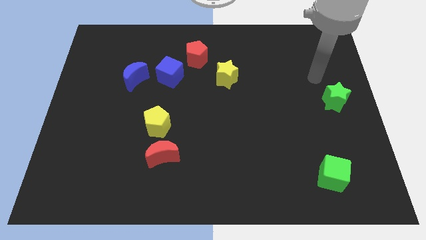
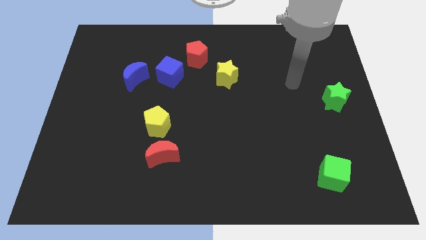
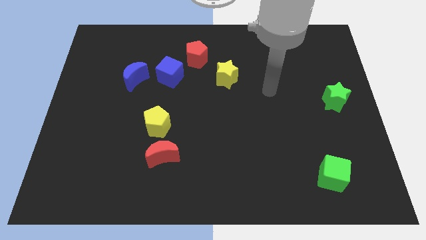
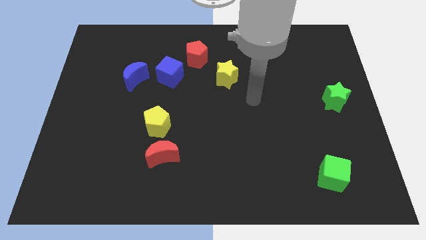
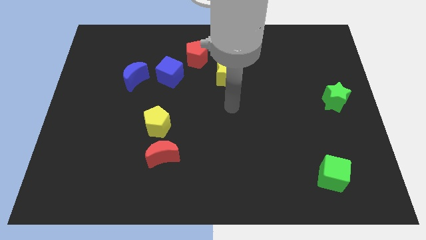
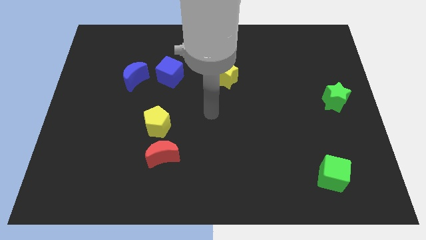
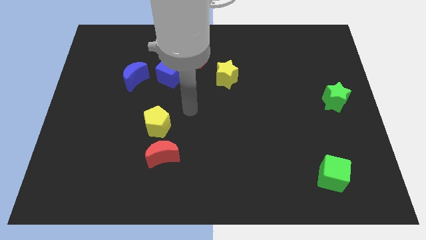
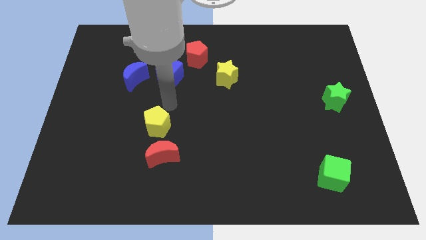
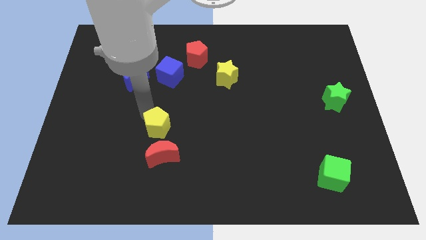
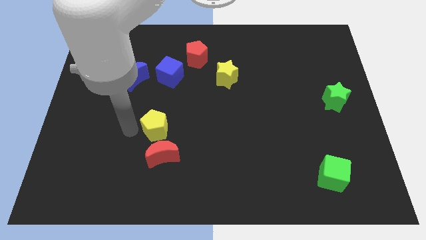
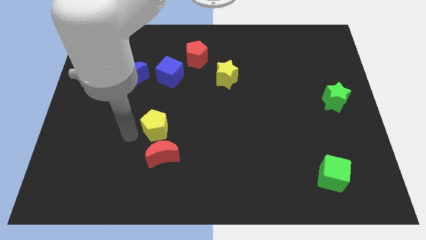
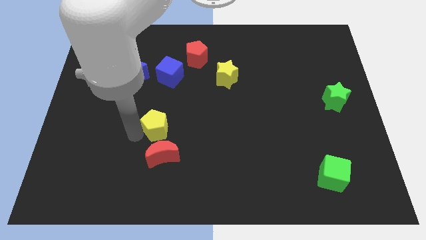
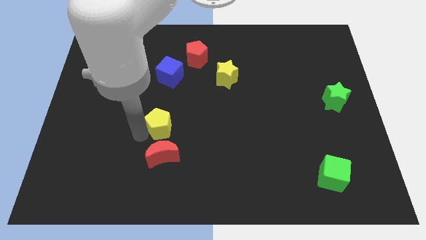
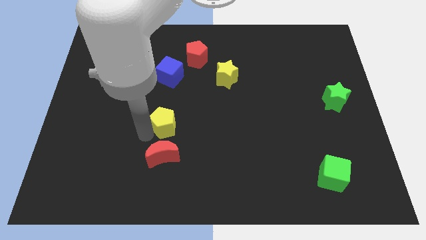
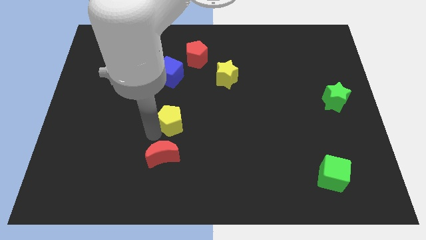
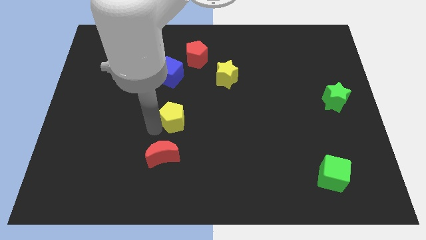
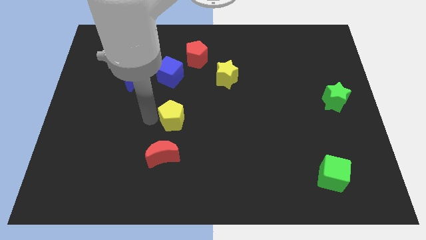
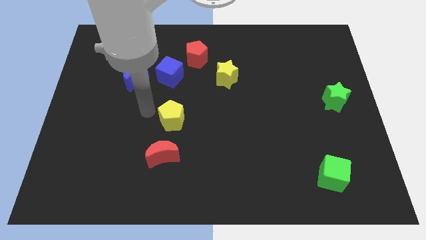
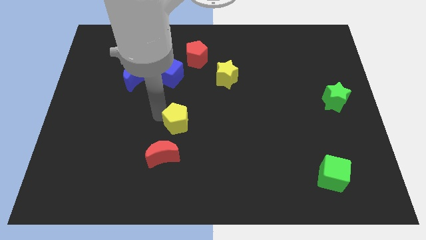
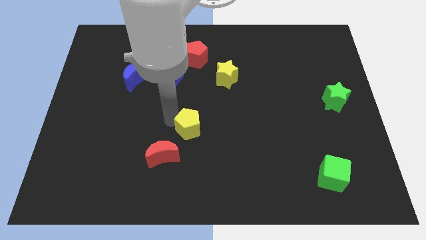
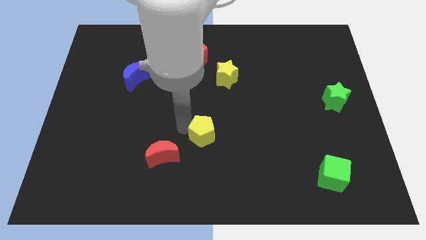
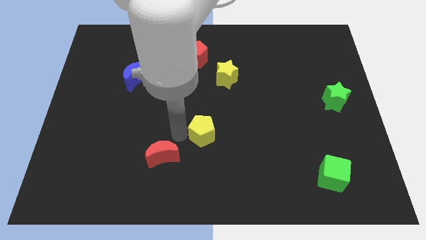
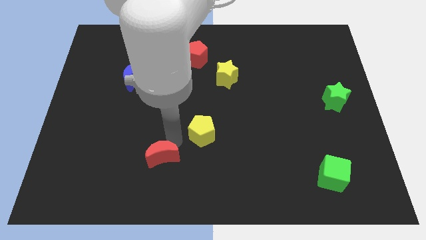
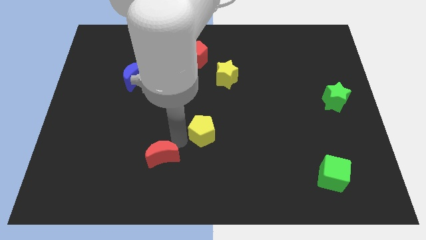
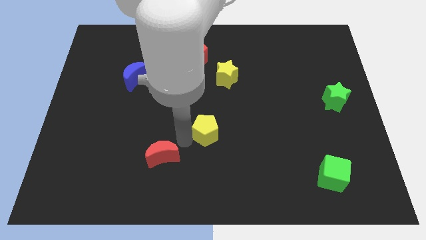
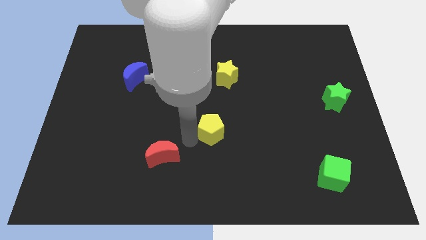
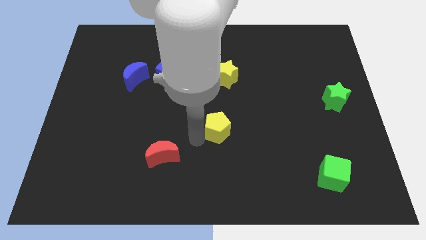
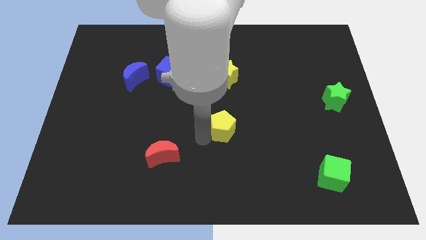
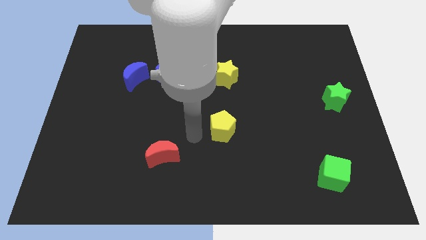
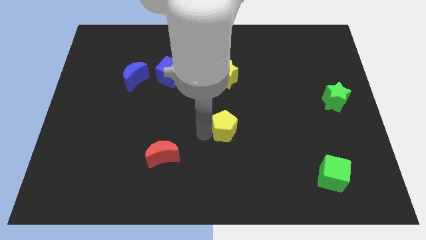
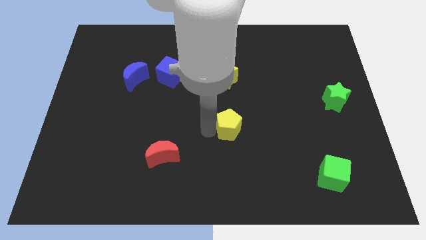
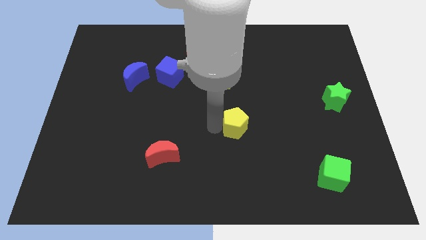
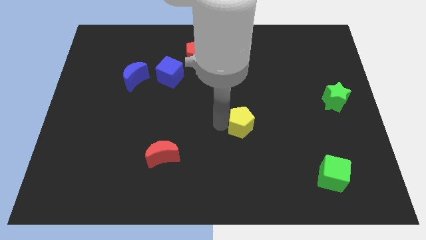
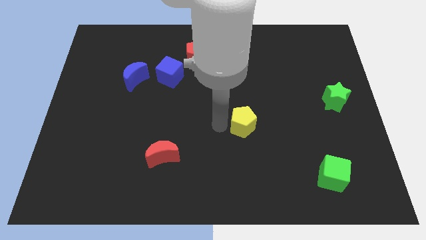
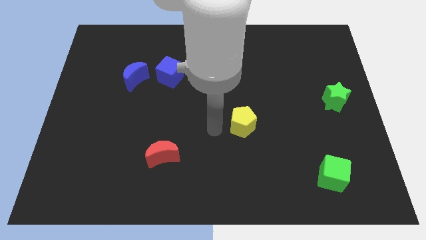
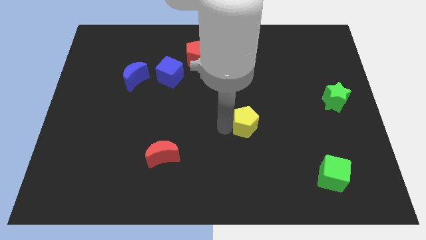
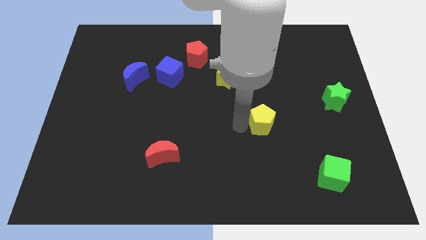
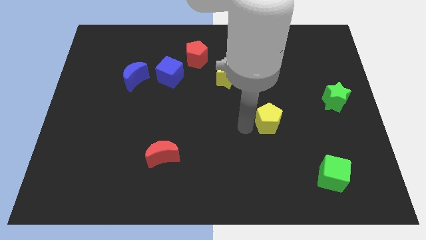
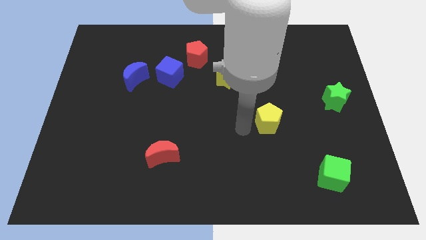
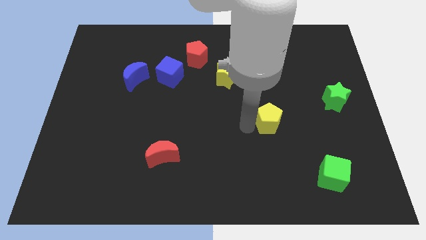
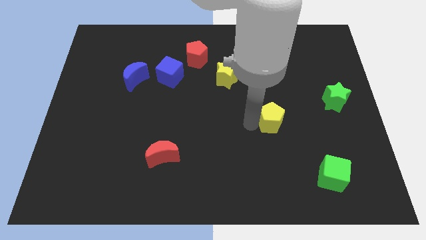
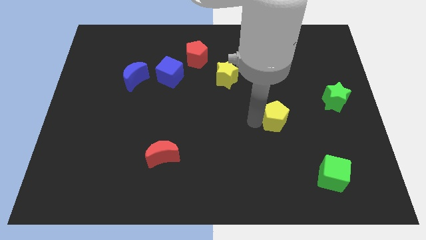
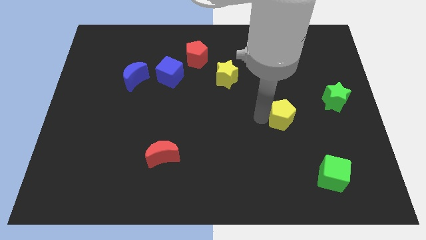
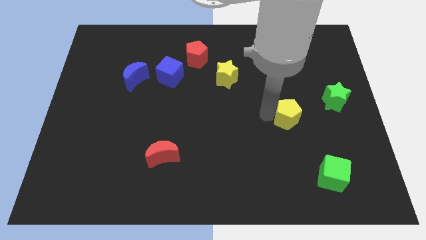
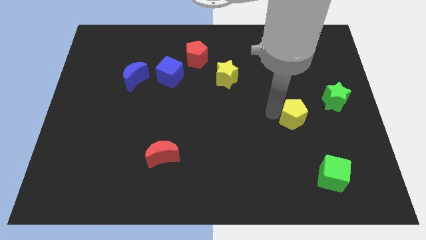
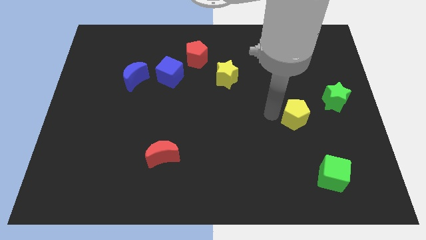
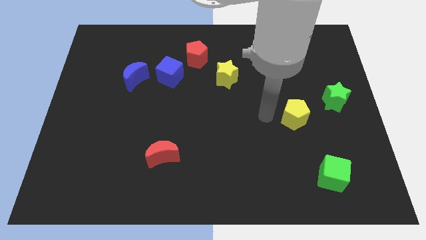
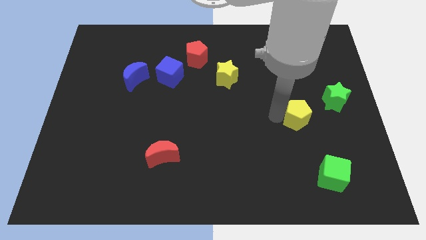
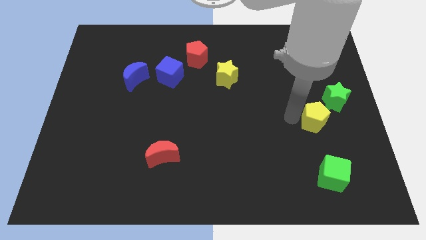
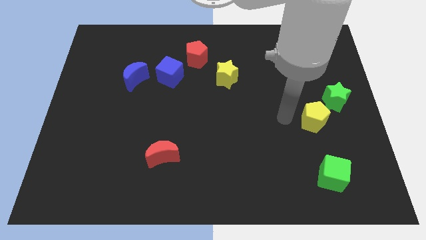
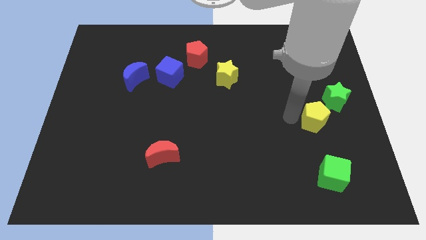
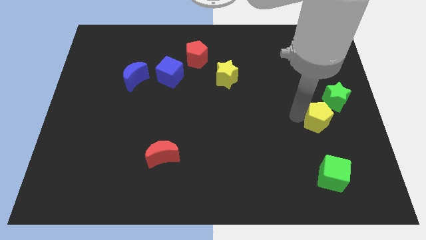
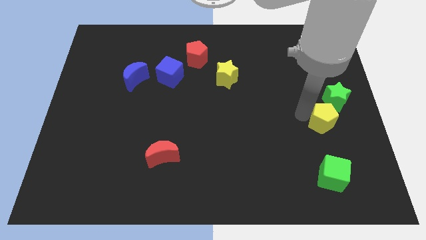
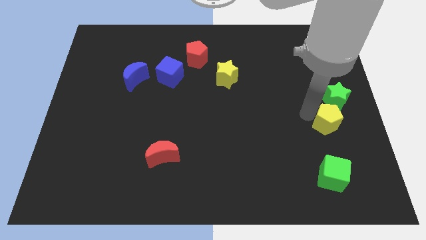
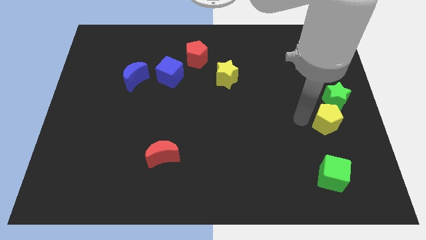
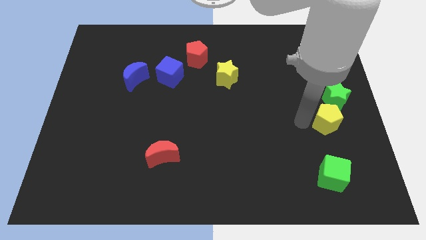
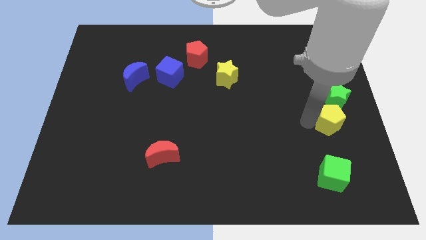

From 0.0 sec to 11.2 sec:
put the yellow pentagon to the right side

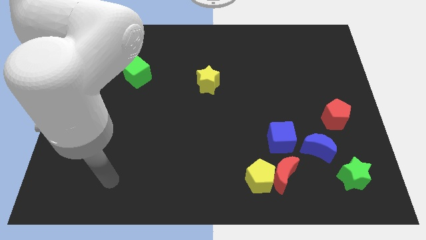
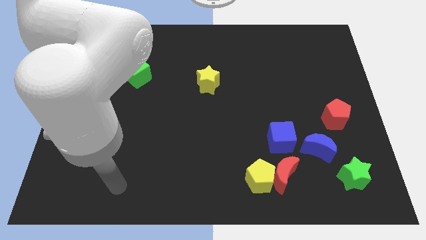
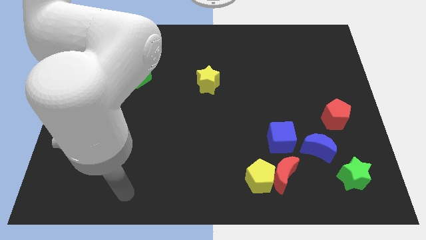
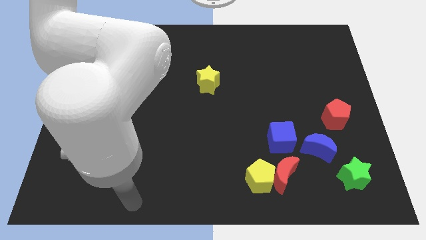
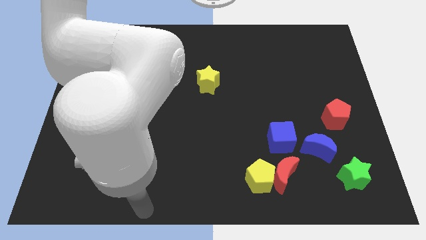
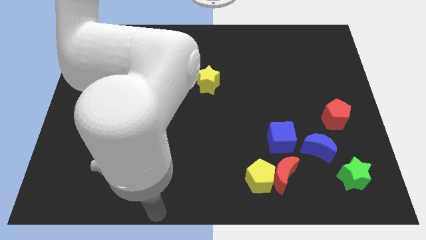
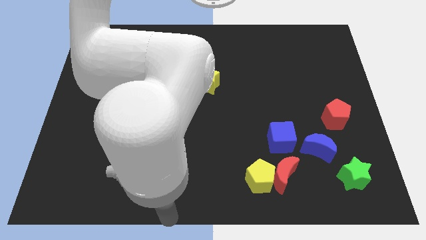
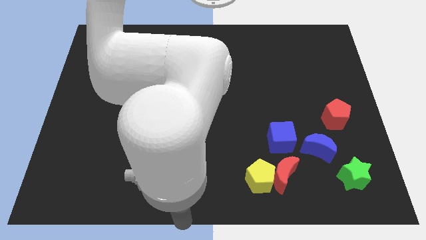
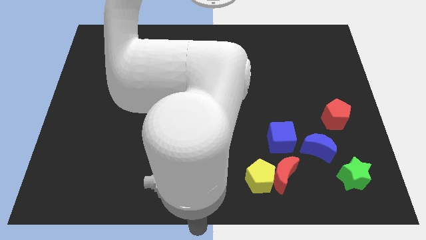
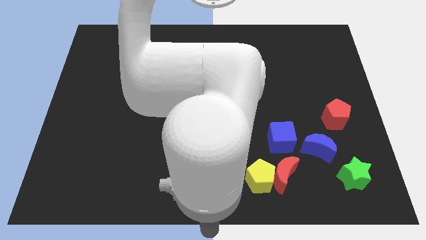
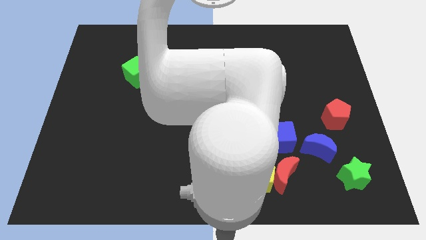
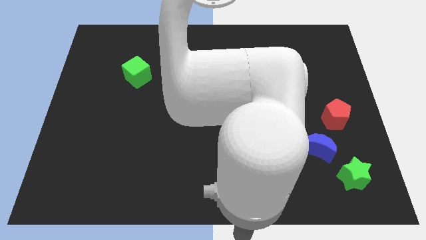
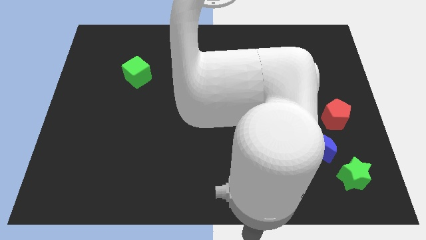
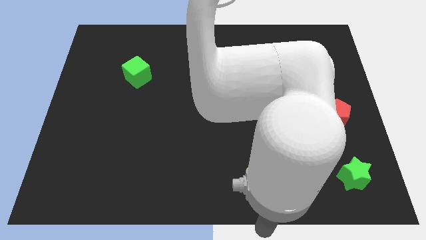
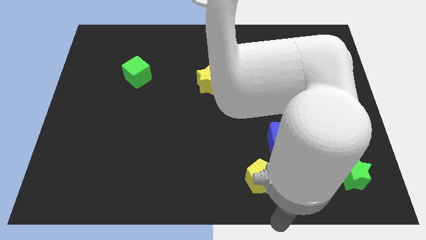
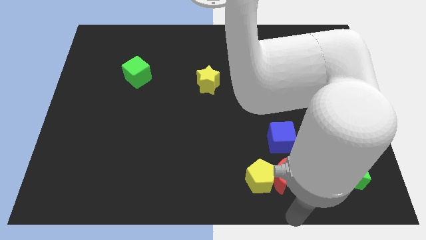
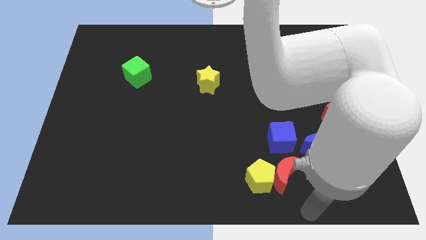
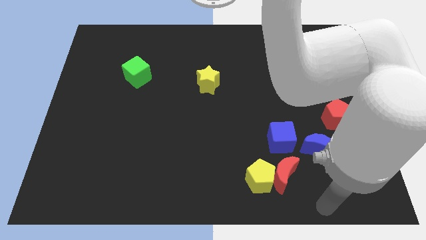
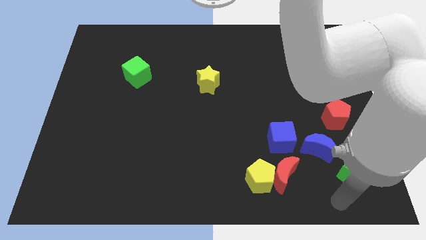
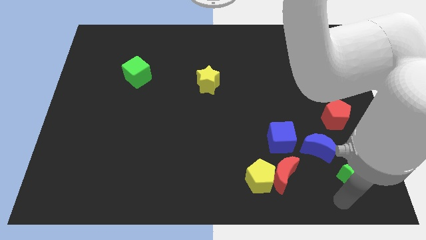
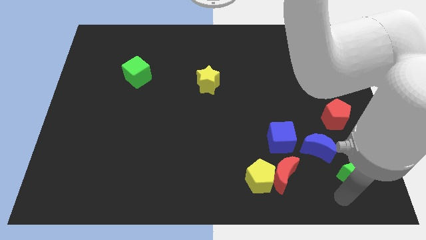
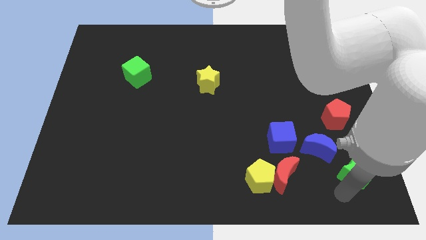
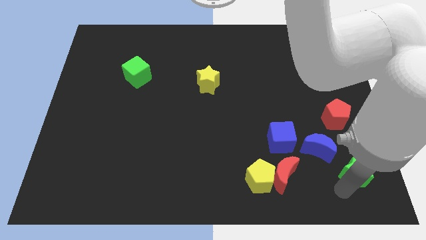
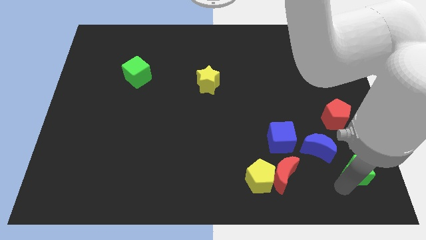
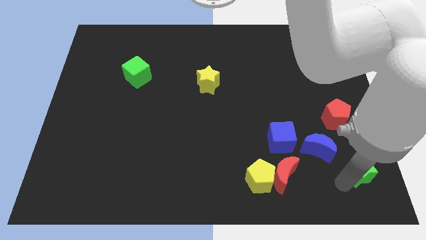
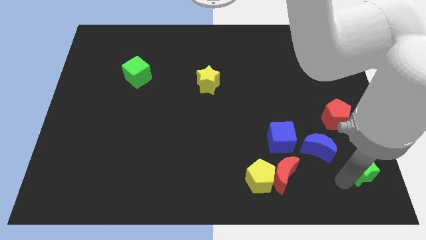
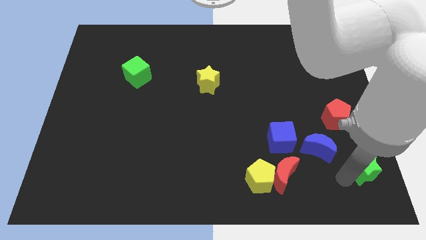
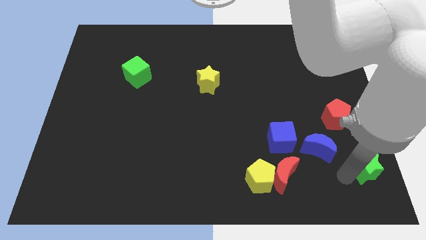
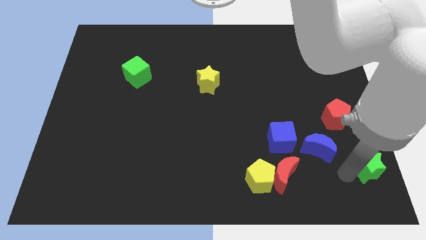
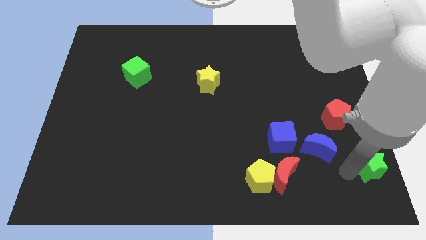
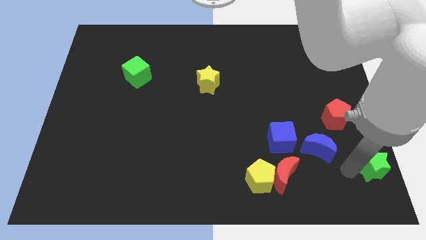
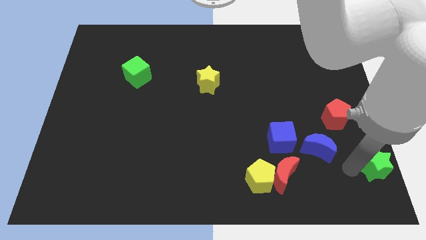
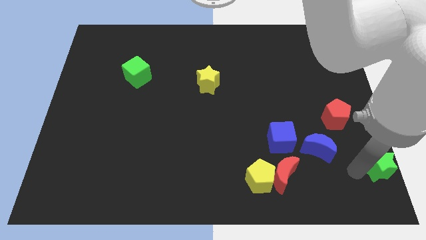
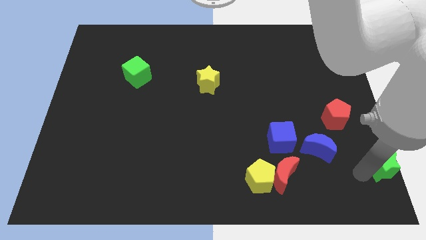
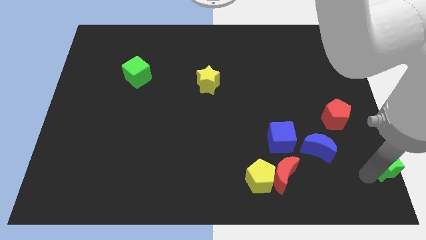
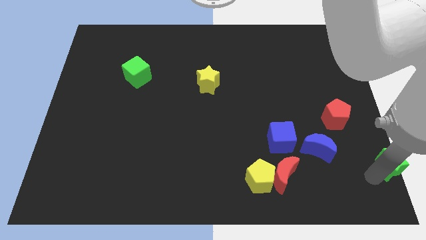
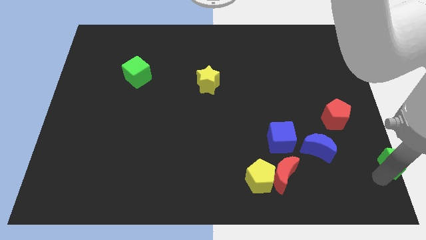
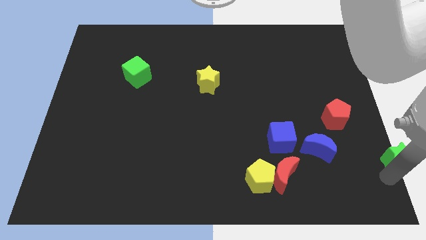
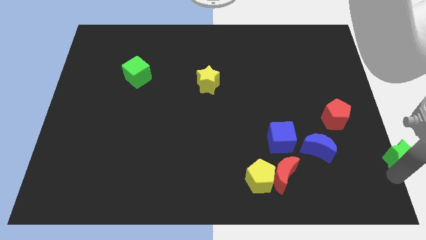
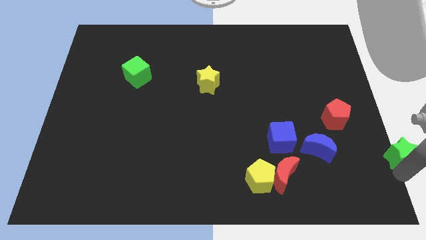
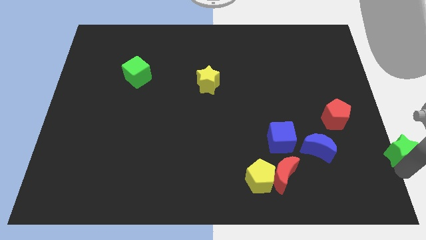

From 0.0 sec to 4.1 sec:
put the green star to the right side
